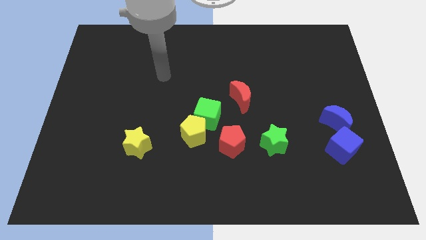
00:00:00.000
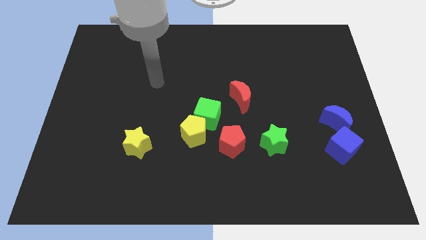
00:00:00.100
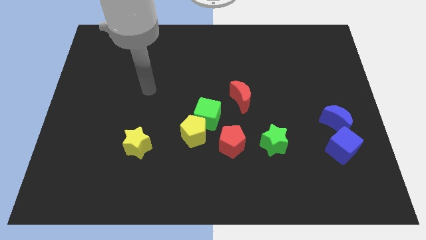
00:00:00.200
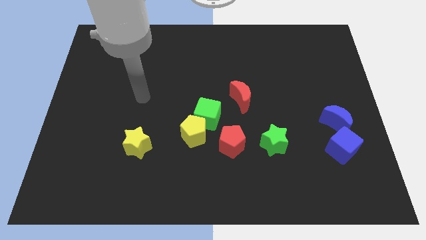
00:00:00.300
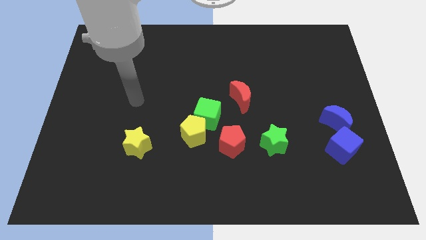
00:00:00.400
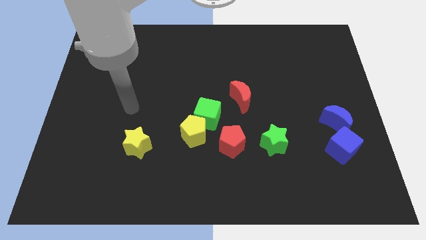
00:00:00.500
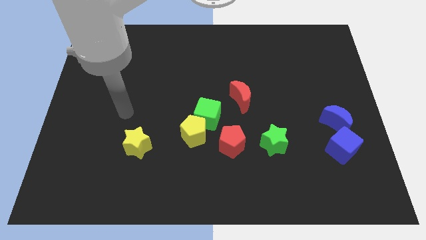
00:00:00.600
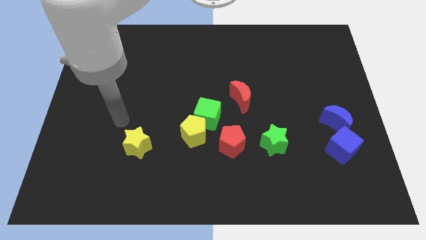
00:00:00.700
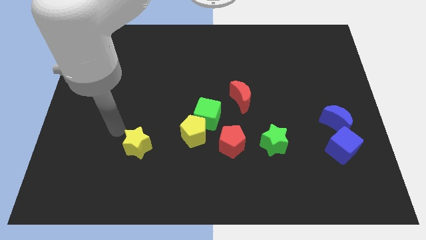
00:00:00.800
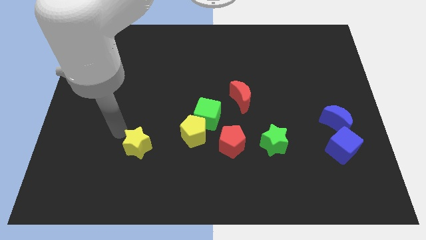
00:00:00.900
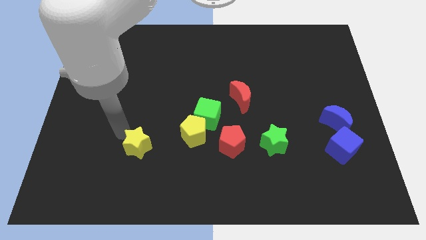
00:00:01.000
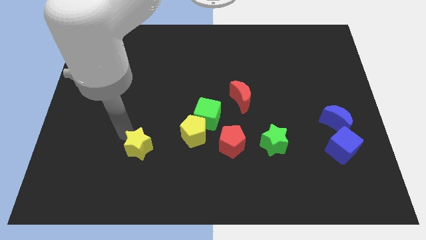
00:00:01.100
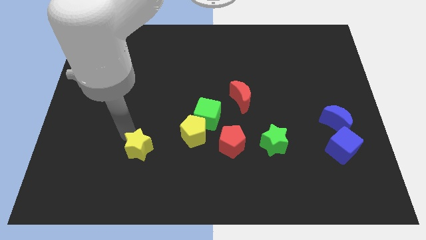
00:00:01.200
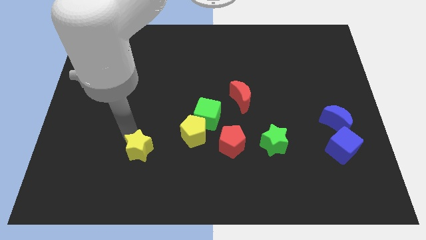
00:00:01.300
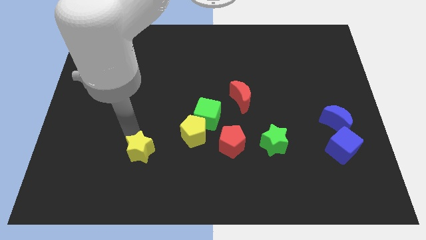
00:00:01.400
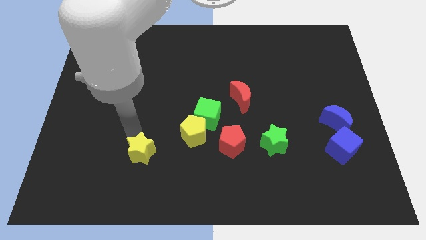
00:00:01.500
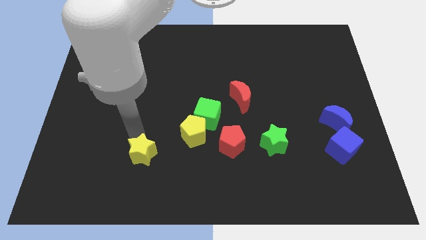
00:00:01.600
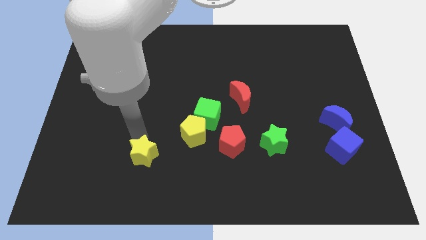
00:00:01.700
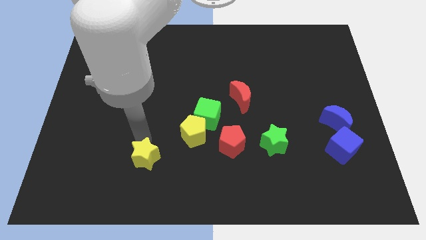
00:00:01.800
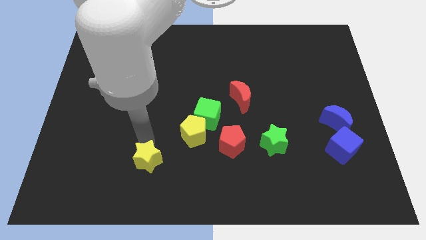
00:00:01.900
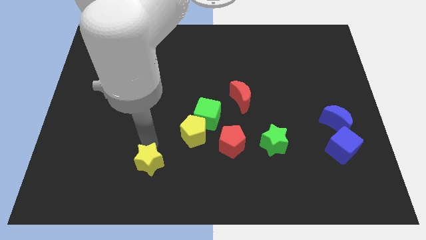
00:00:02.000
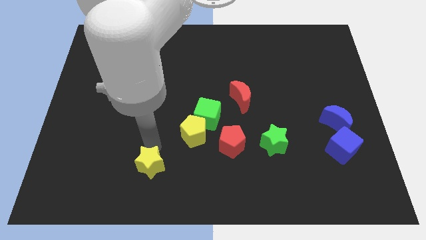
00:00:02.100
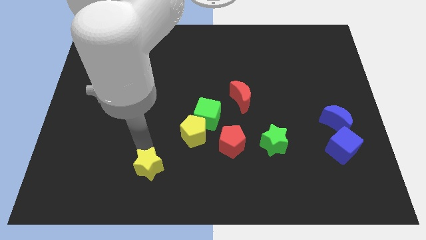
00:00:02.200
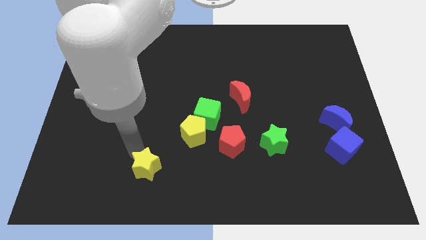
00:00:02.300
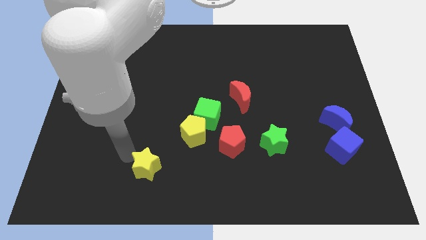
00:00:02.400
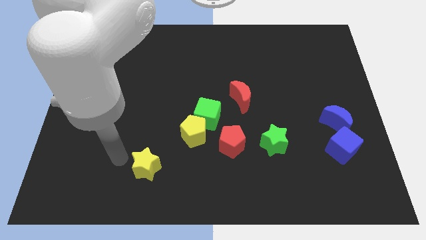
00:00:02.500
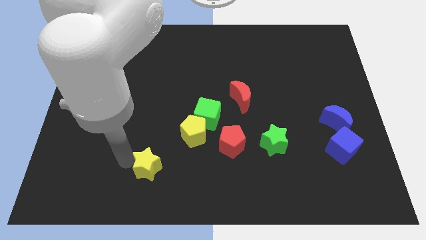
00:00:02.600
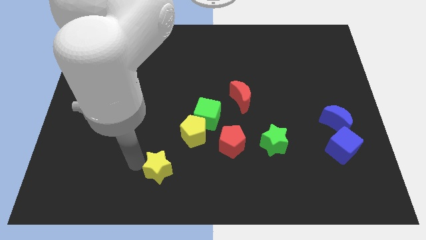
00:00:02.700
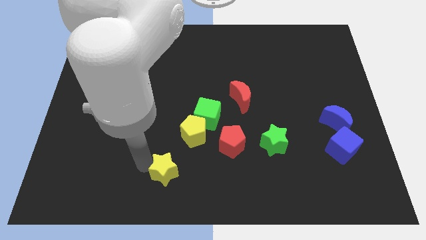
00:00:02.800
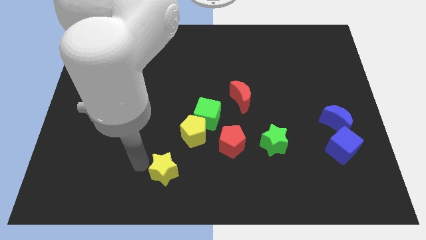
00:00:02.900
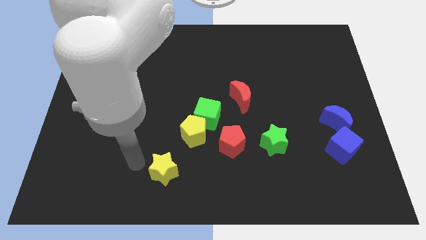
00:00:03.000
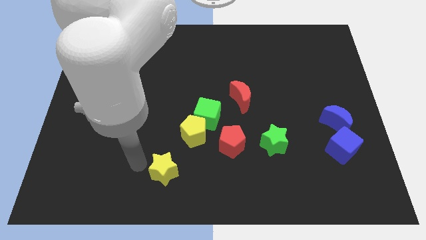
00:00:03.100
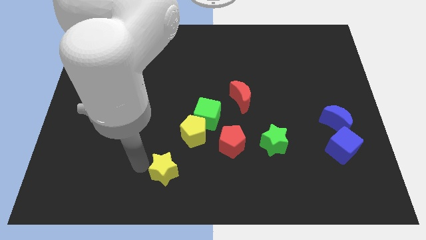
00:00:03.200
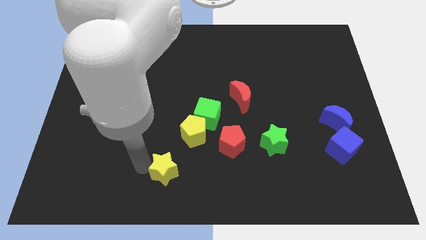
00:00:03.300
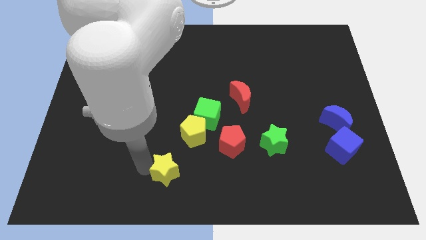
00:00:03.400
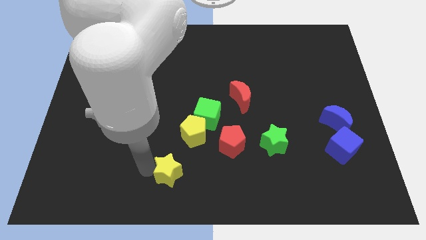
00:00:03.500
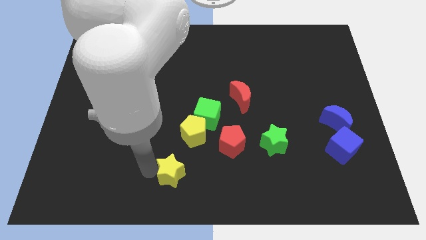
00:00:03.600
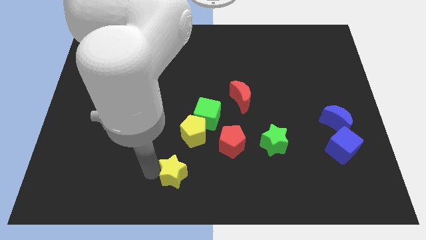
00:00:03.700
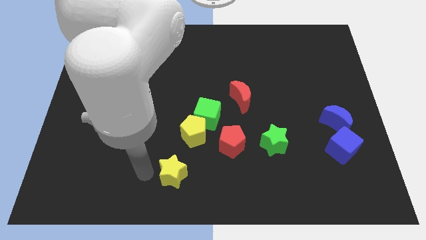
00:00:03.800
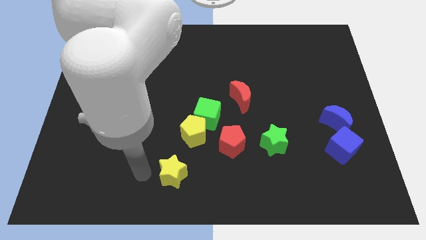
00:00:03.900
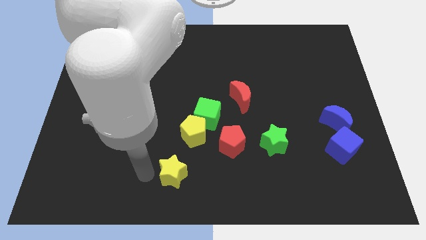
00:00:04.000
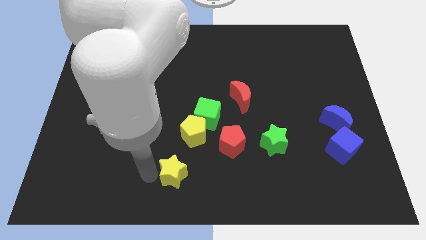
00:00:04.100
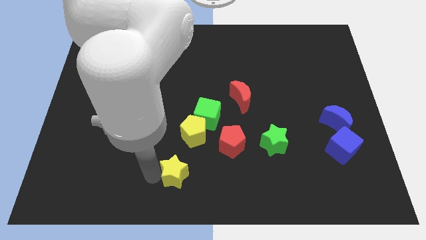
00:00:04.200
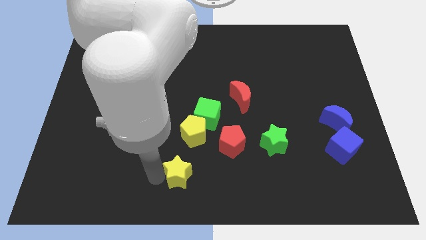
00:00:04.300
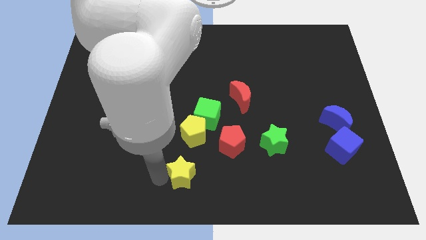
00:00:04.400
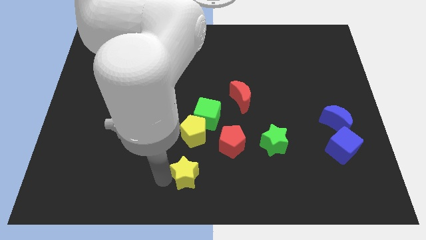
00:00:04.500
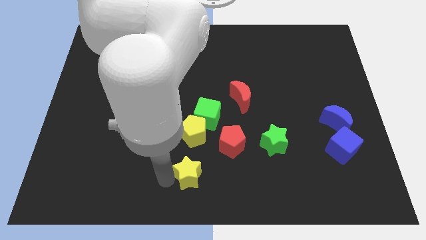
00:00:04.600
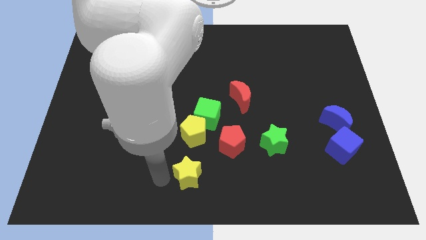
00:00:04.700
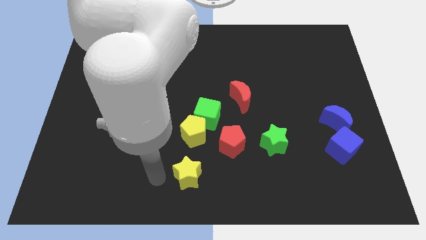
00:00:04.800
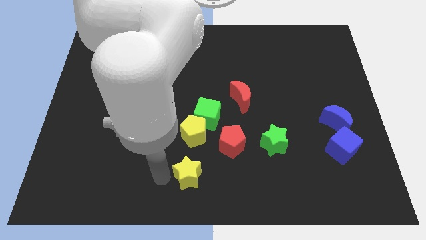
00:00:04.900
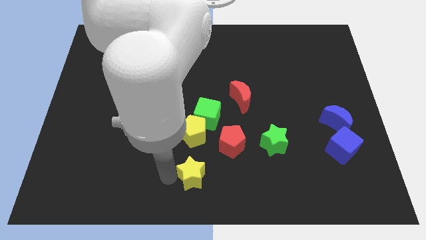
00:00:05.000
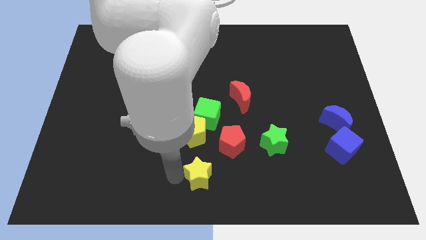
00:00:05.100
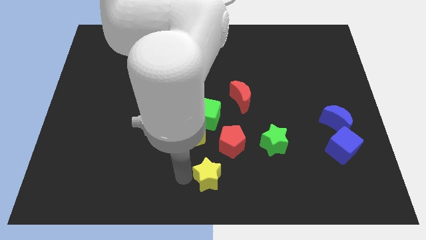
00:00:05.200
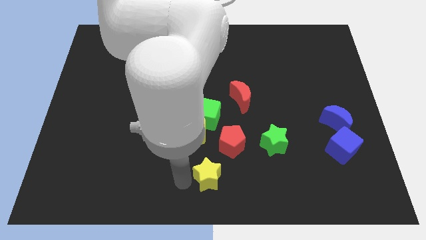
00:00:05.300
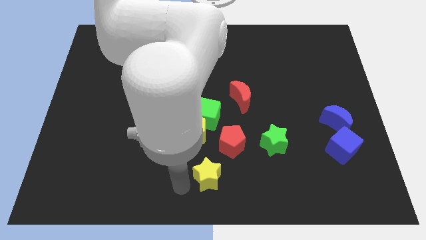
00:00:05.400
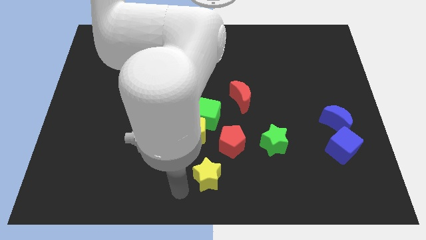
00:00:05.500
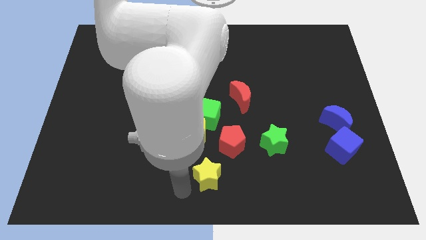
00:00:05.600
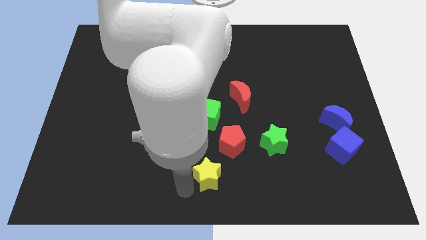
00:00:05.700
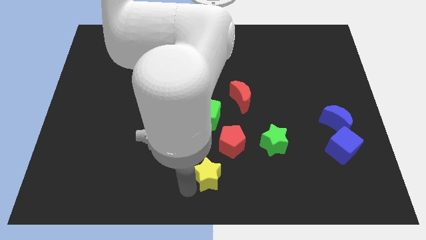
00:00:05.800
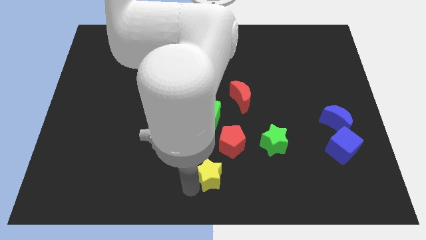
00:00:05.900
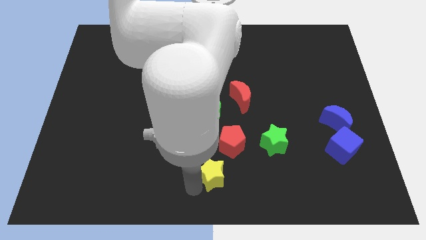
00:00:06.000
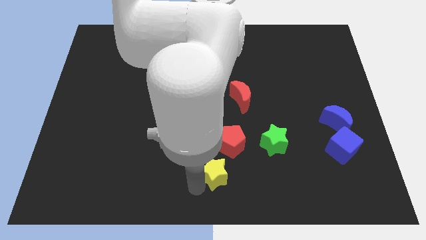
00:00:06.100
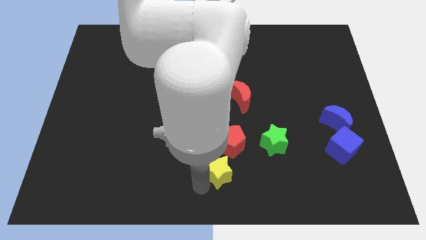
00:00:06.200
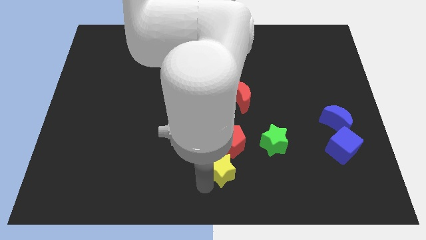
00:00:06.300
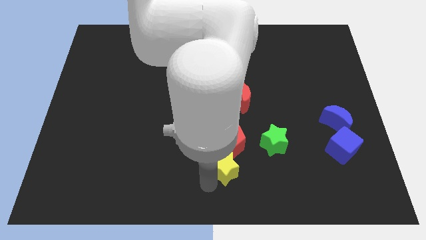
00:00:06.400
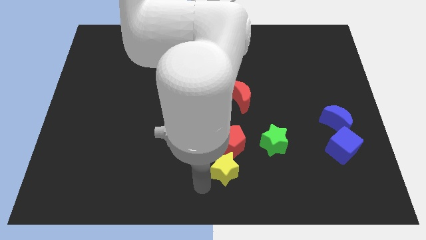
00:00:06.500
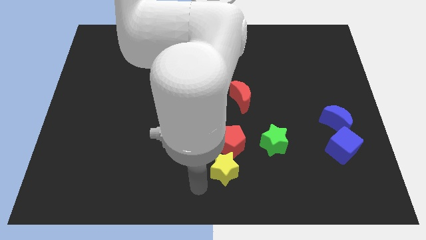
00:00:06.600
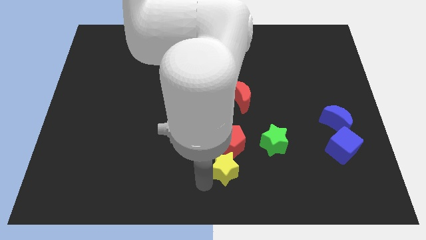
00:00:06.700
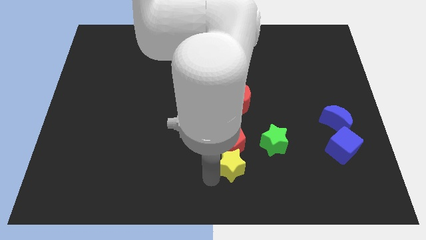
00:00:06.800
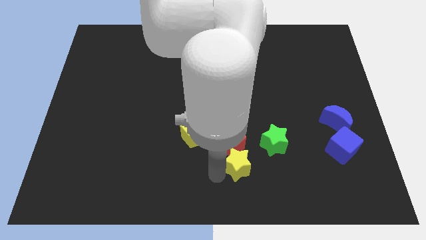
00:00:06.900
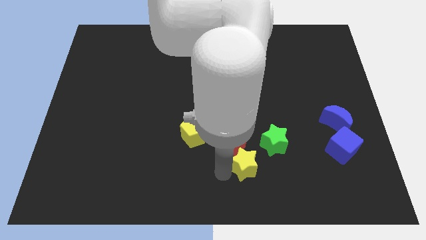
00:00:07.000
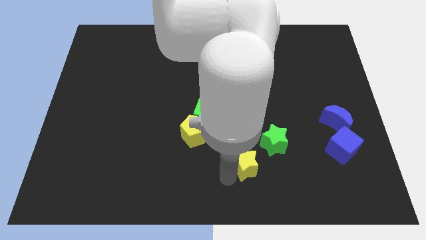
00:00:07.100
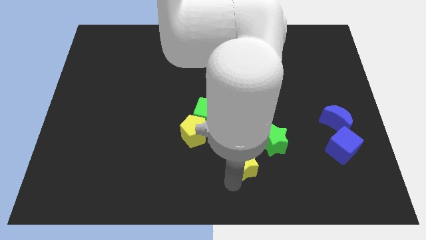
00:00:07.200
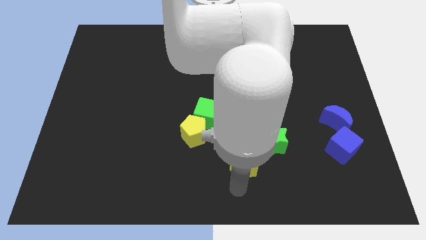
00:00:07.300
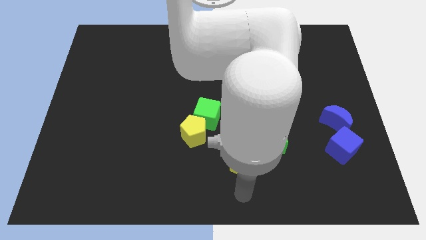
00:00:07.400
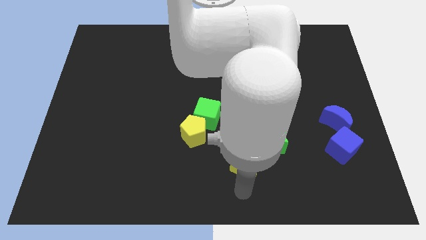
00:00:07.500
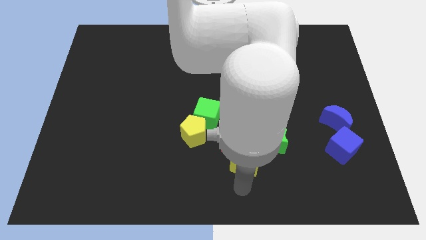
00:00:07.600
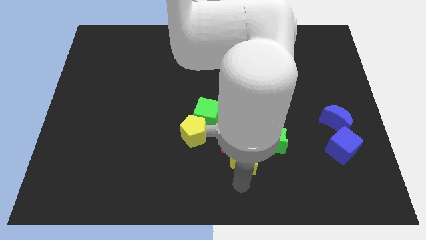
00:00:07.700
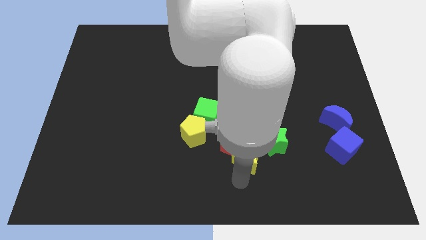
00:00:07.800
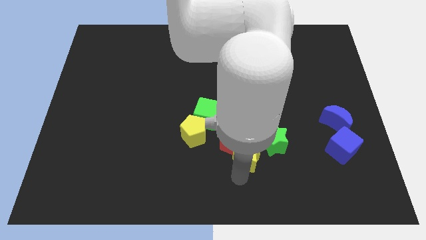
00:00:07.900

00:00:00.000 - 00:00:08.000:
push the yellow star below the red moon
